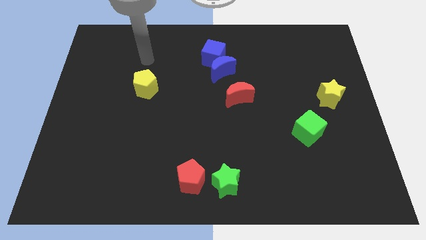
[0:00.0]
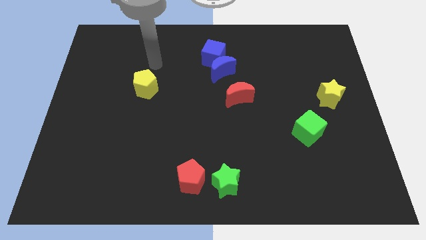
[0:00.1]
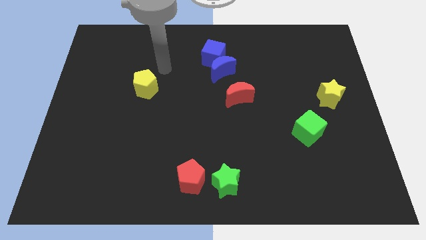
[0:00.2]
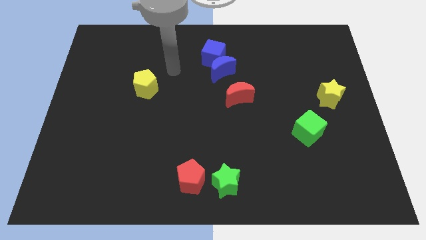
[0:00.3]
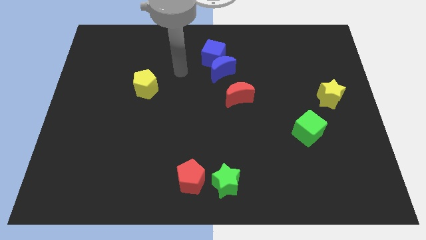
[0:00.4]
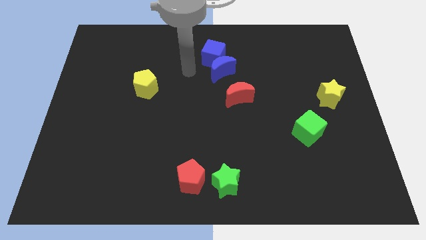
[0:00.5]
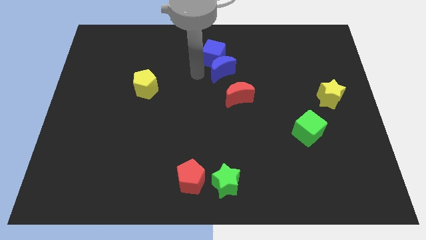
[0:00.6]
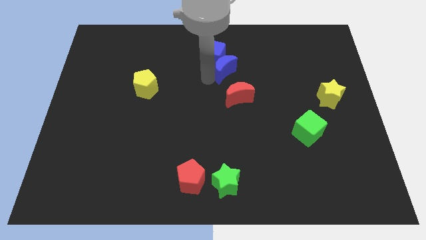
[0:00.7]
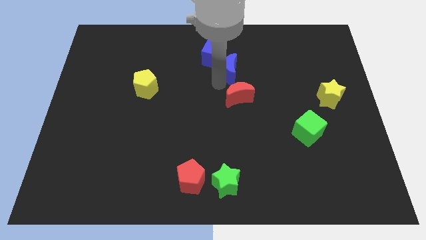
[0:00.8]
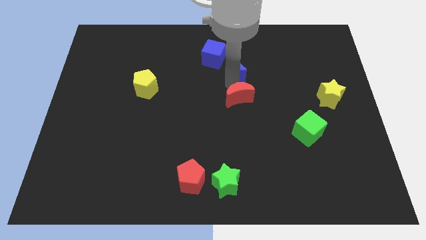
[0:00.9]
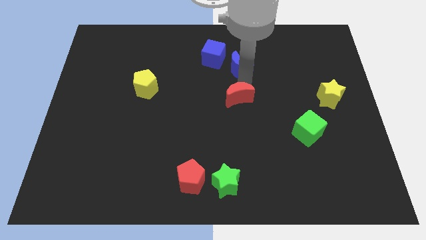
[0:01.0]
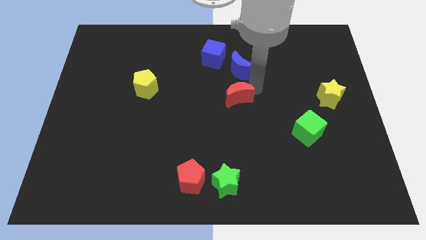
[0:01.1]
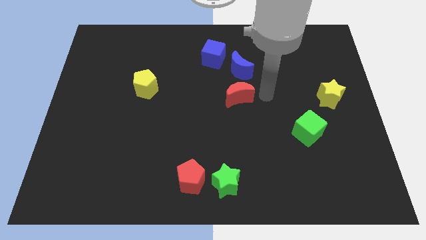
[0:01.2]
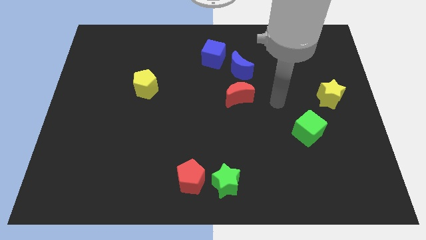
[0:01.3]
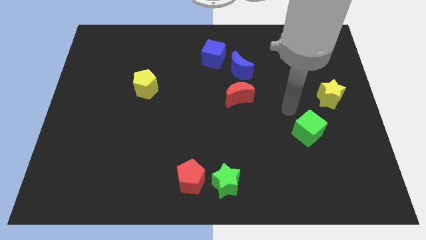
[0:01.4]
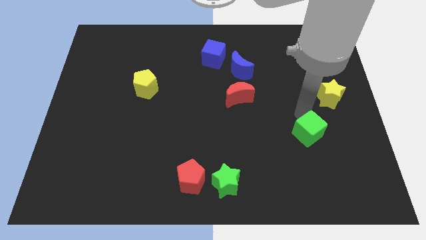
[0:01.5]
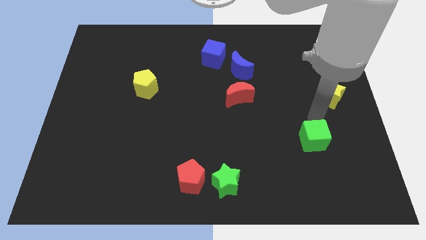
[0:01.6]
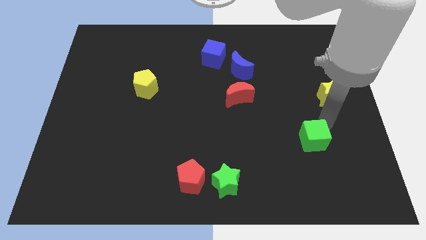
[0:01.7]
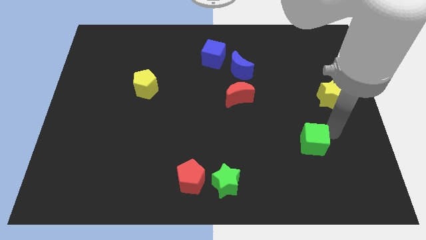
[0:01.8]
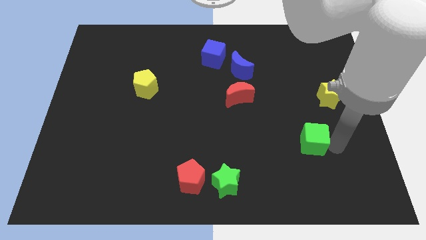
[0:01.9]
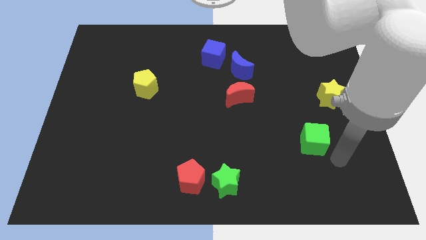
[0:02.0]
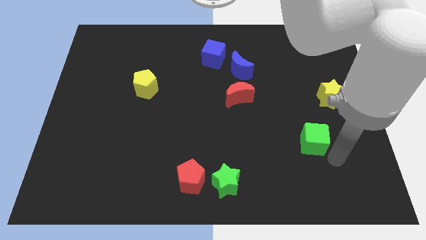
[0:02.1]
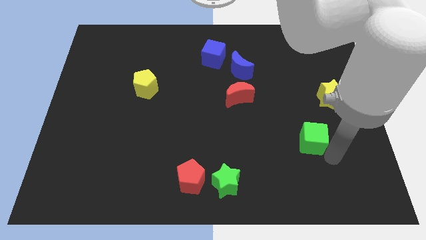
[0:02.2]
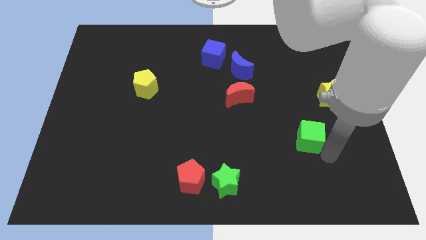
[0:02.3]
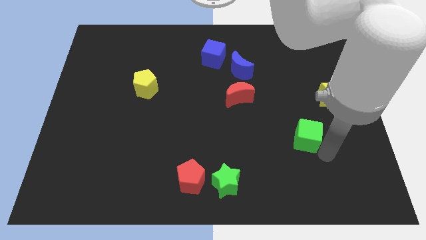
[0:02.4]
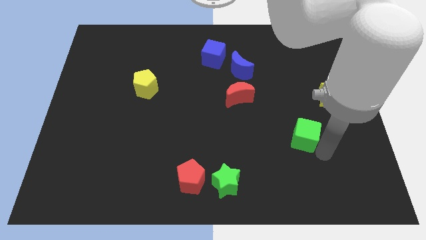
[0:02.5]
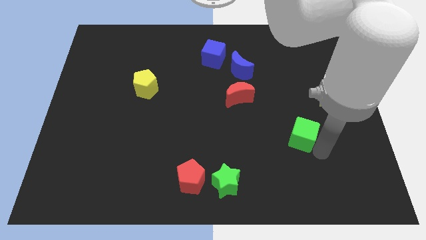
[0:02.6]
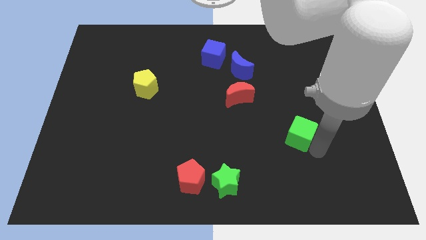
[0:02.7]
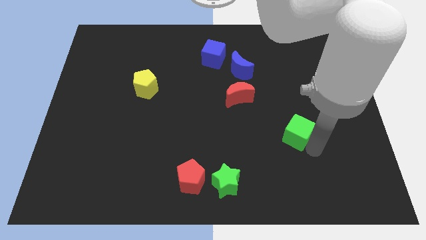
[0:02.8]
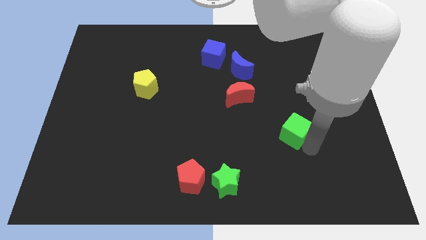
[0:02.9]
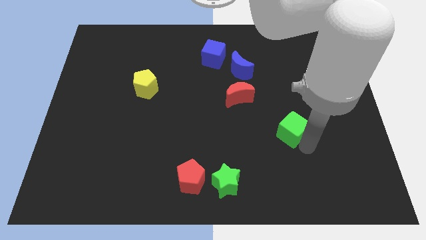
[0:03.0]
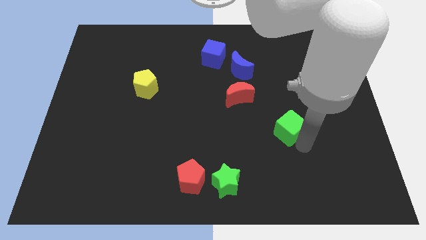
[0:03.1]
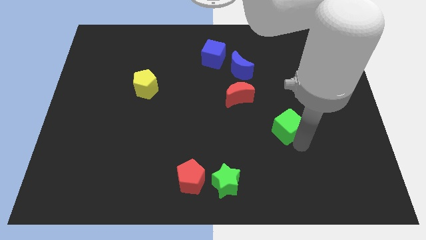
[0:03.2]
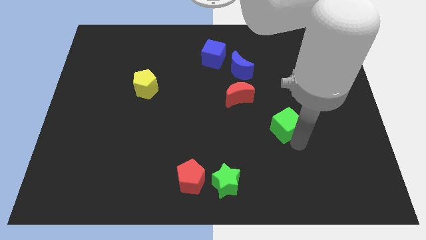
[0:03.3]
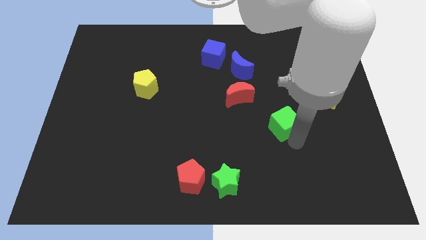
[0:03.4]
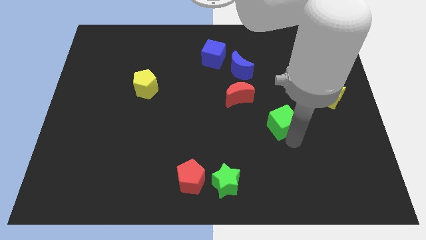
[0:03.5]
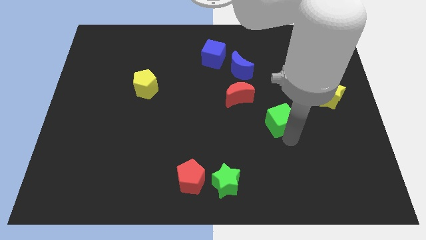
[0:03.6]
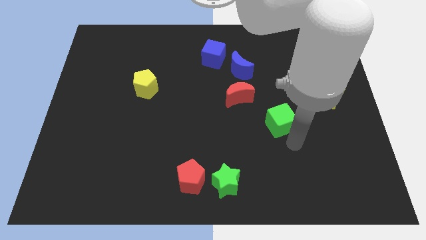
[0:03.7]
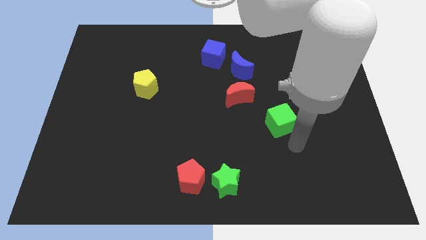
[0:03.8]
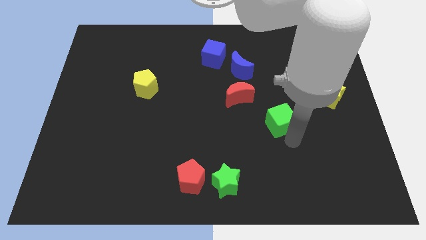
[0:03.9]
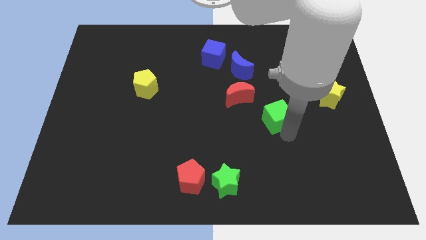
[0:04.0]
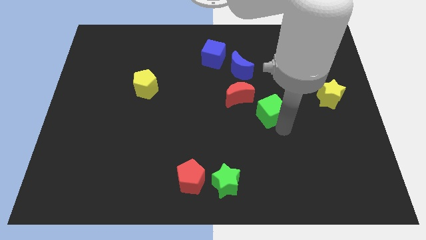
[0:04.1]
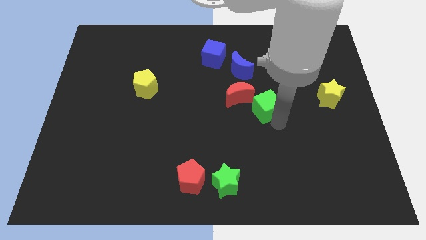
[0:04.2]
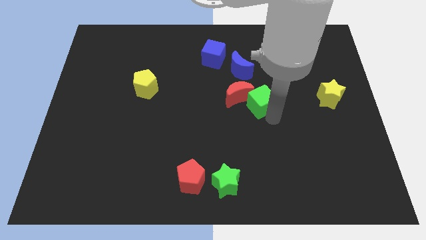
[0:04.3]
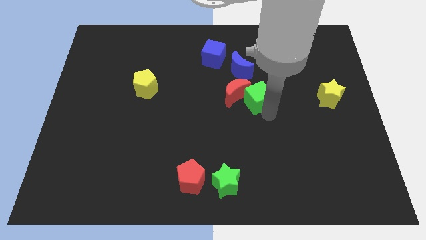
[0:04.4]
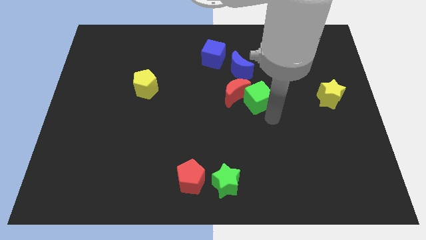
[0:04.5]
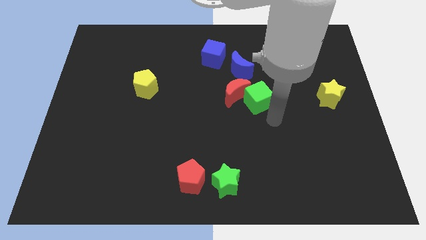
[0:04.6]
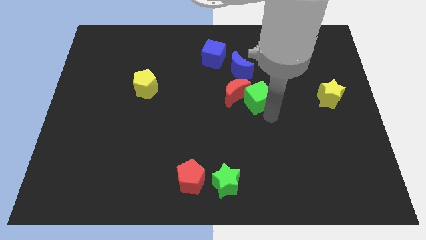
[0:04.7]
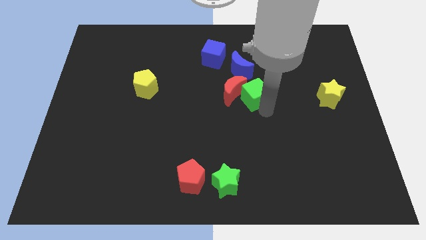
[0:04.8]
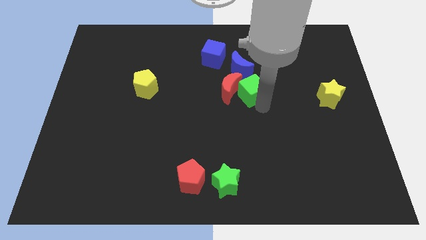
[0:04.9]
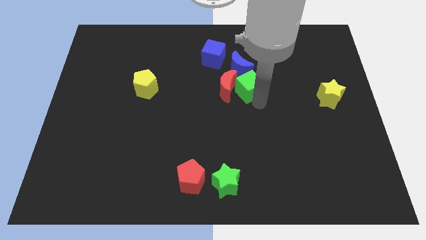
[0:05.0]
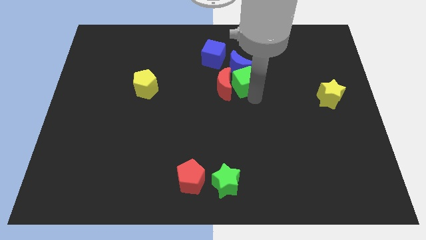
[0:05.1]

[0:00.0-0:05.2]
push the green cube next to the blue moon

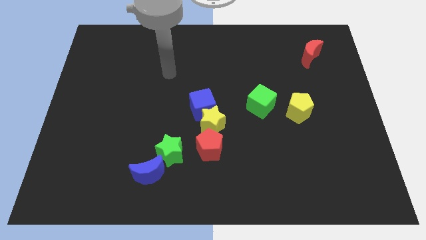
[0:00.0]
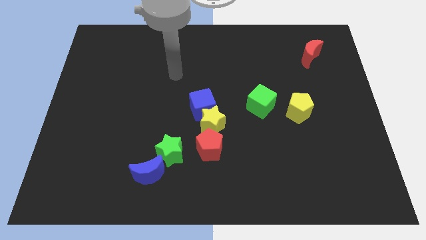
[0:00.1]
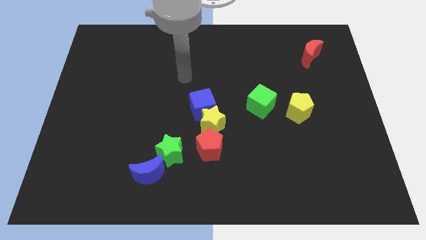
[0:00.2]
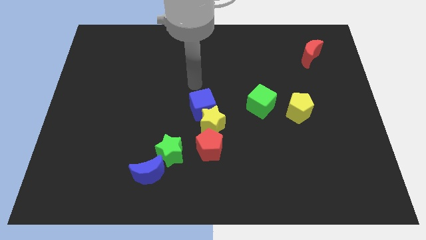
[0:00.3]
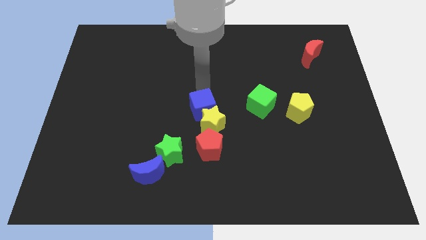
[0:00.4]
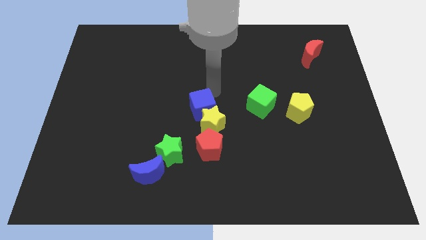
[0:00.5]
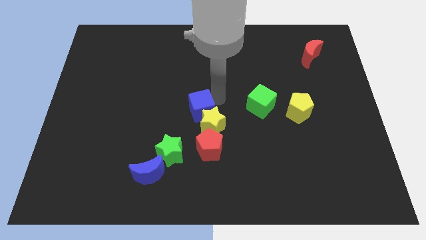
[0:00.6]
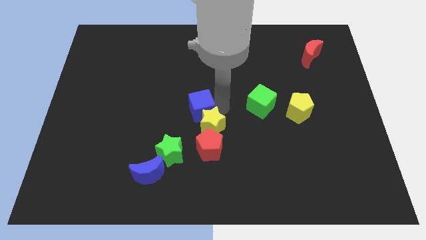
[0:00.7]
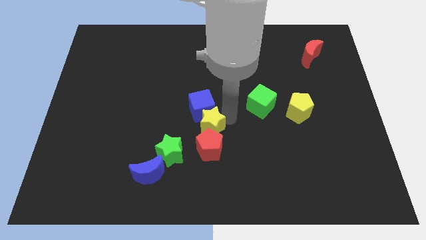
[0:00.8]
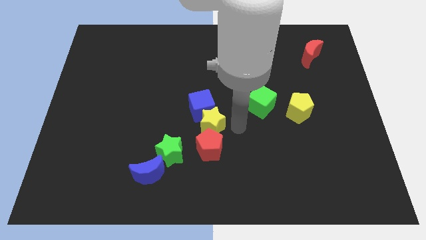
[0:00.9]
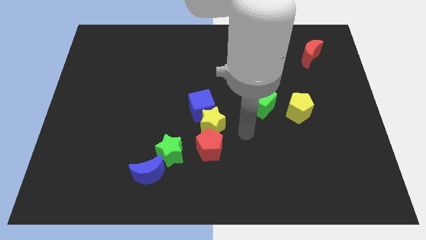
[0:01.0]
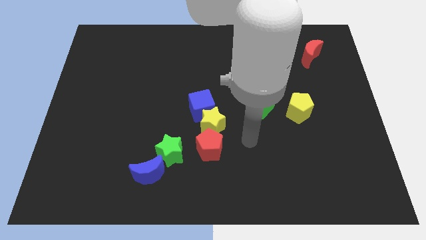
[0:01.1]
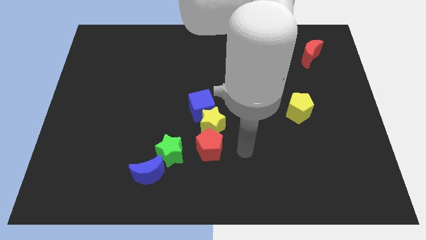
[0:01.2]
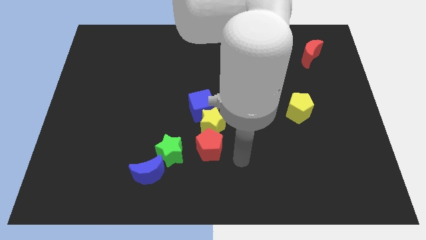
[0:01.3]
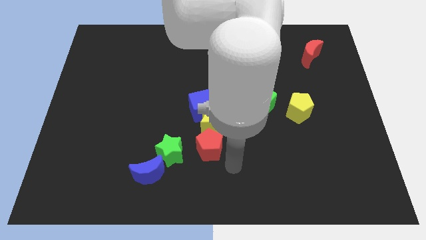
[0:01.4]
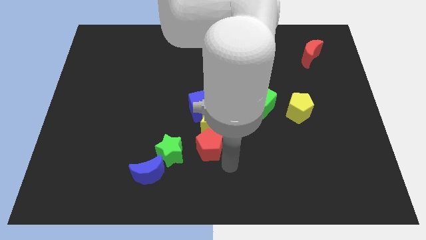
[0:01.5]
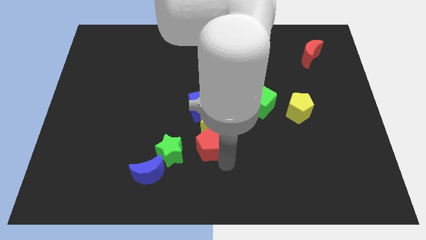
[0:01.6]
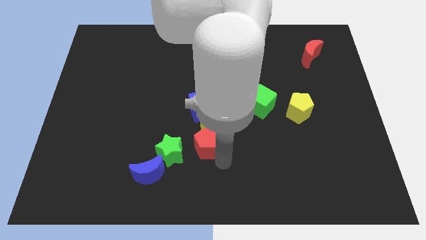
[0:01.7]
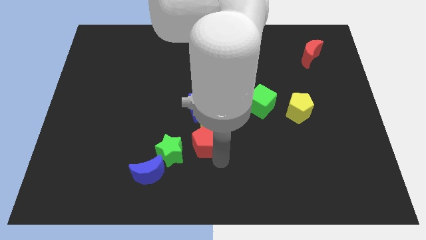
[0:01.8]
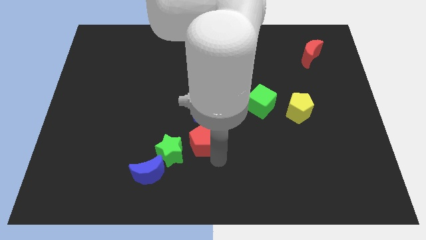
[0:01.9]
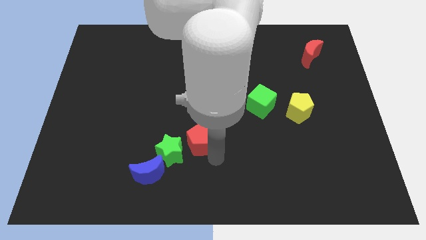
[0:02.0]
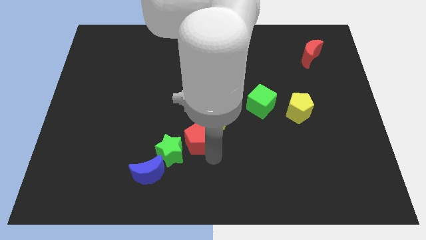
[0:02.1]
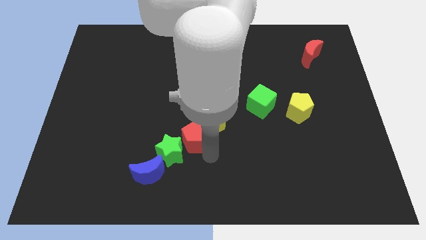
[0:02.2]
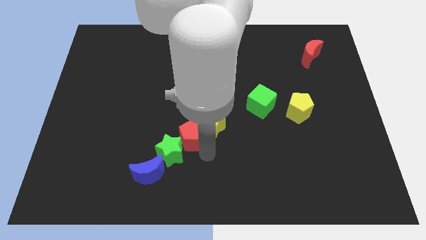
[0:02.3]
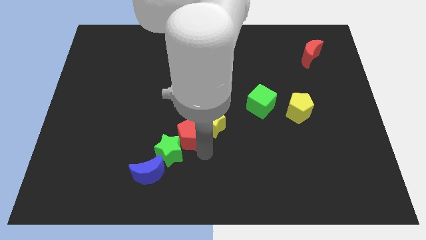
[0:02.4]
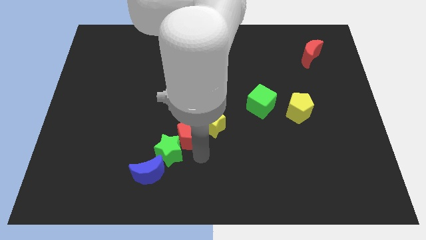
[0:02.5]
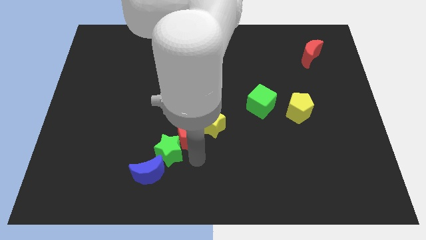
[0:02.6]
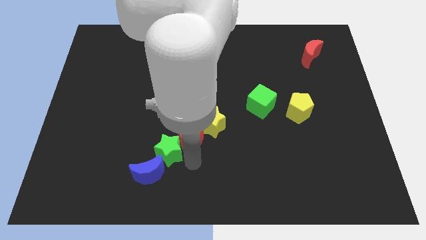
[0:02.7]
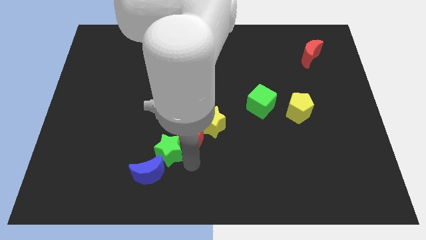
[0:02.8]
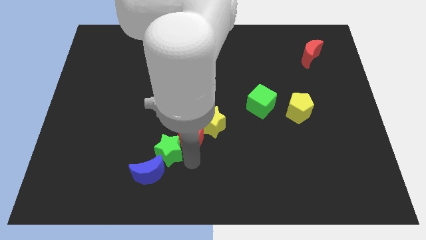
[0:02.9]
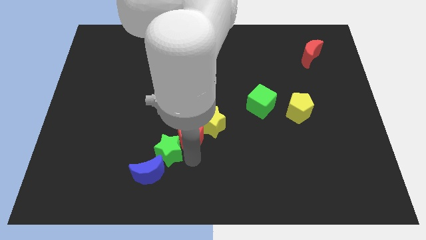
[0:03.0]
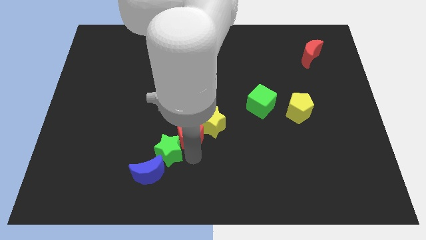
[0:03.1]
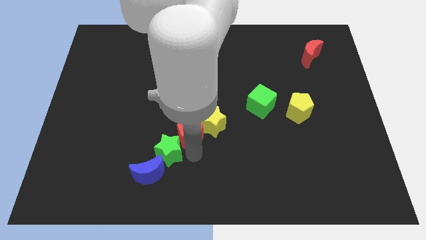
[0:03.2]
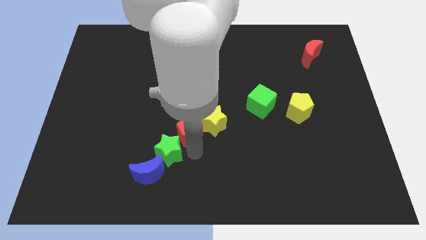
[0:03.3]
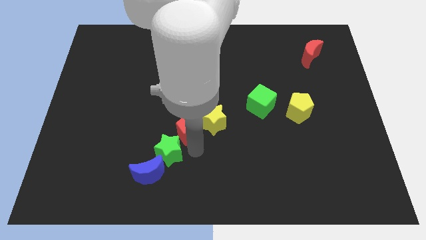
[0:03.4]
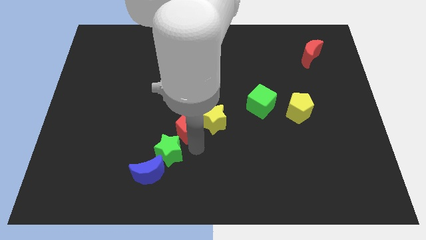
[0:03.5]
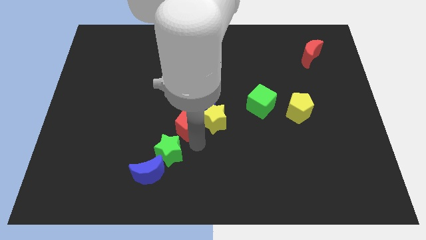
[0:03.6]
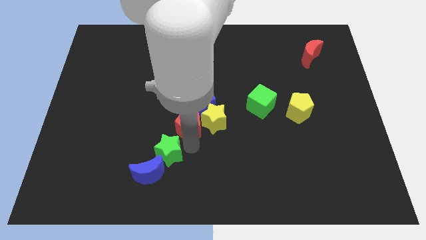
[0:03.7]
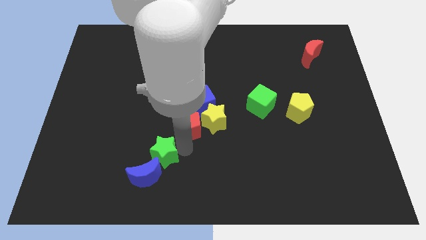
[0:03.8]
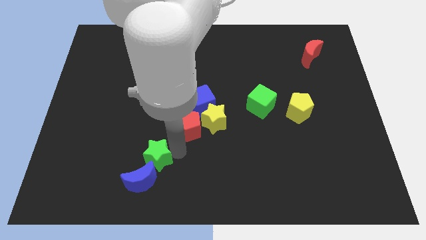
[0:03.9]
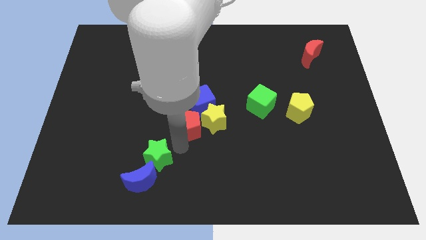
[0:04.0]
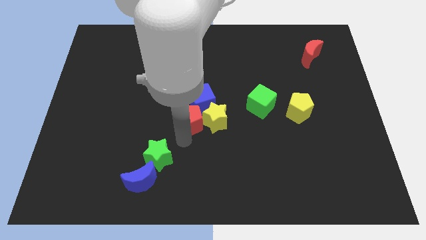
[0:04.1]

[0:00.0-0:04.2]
move the red pentagon close to the blue cube
